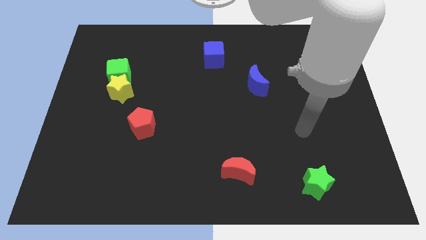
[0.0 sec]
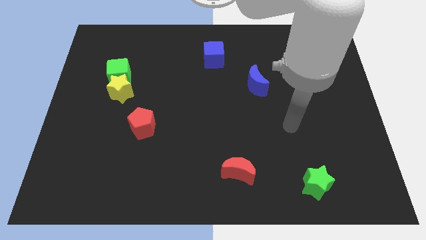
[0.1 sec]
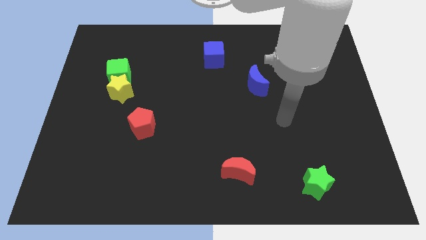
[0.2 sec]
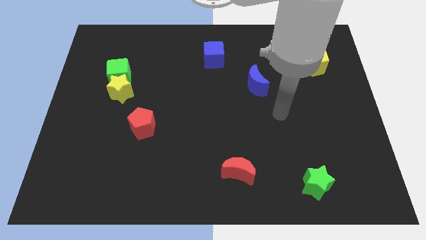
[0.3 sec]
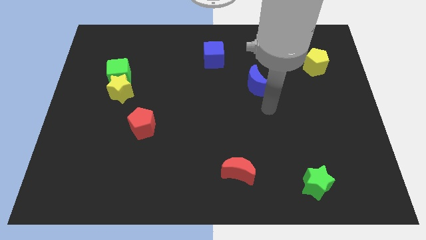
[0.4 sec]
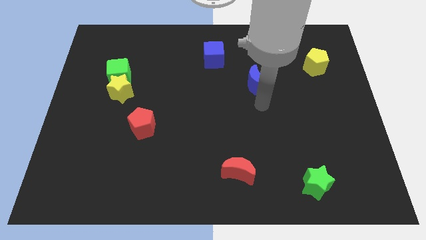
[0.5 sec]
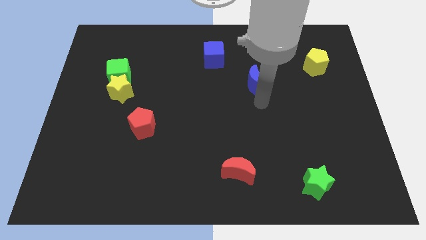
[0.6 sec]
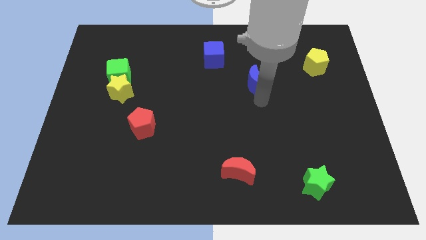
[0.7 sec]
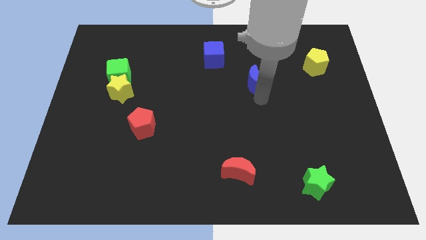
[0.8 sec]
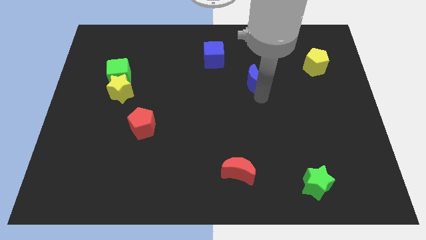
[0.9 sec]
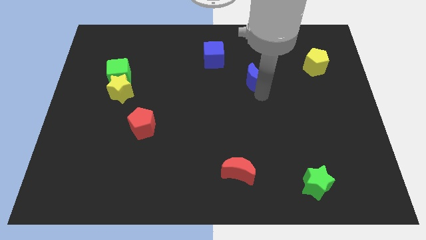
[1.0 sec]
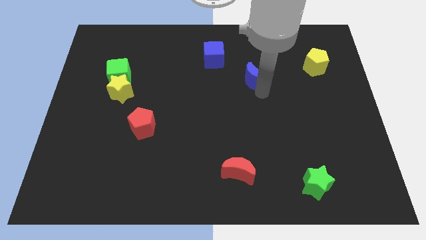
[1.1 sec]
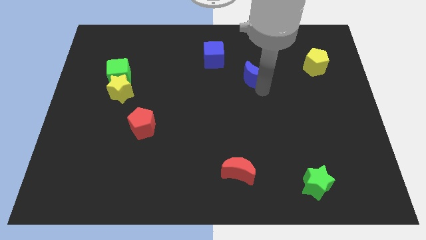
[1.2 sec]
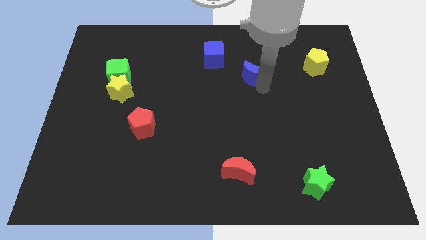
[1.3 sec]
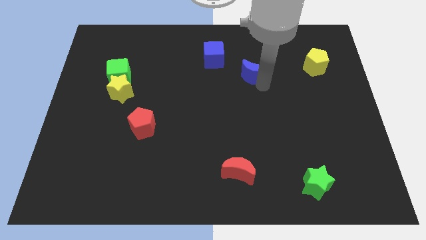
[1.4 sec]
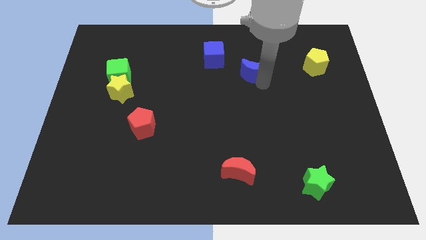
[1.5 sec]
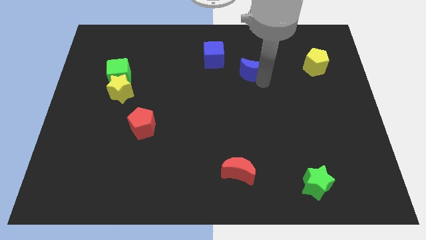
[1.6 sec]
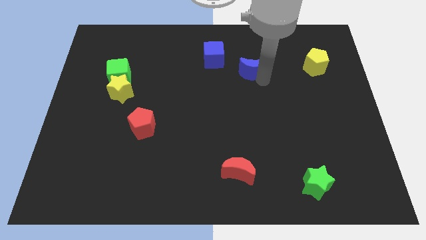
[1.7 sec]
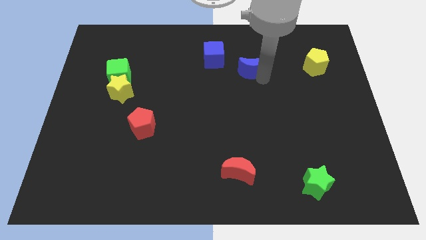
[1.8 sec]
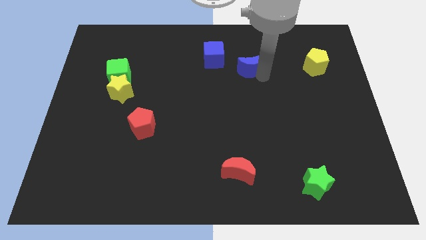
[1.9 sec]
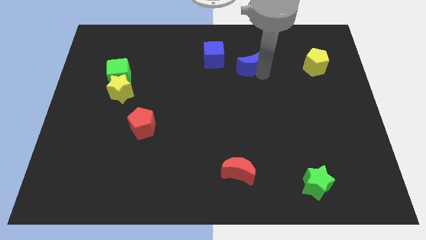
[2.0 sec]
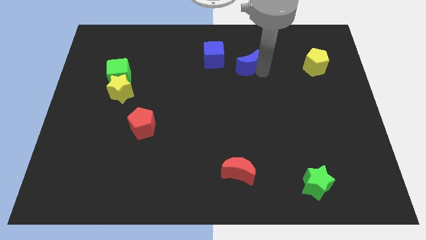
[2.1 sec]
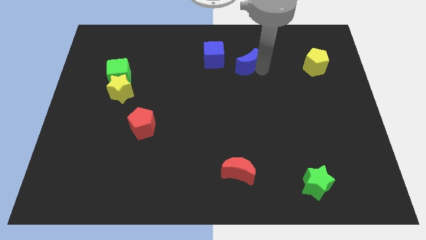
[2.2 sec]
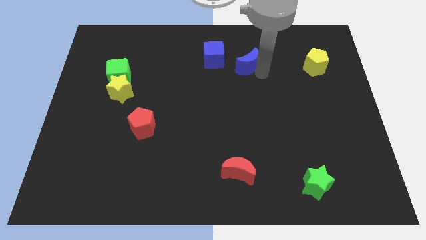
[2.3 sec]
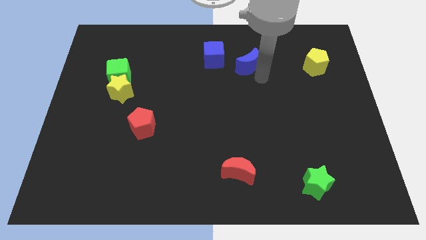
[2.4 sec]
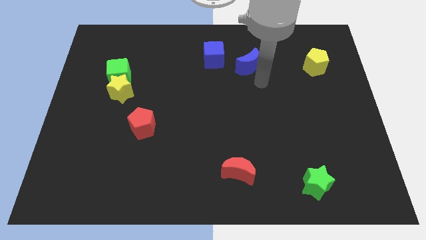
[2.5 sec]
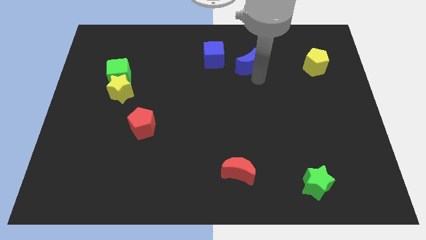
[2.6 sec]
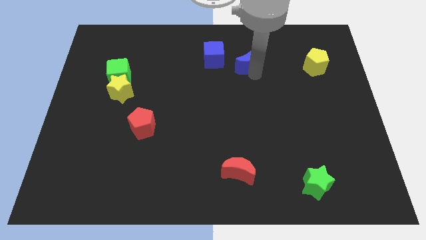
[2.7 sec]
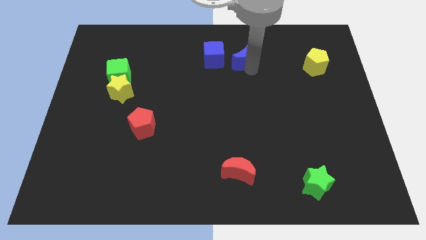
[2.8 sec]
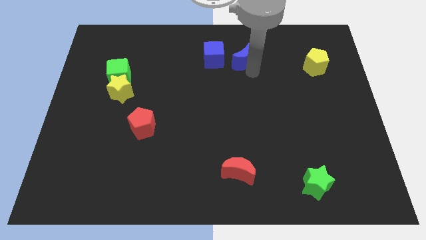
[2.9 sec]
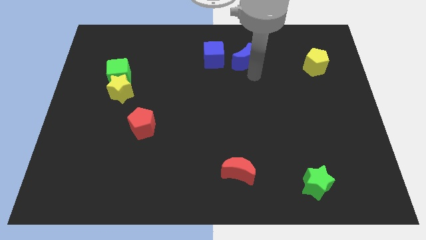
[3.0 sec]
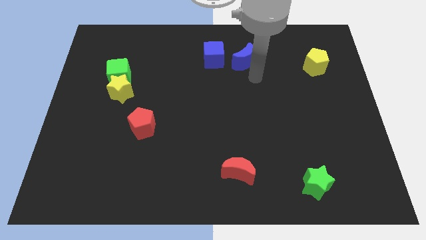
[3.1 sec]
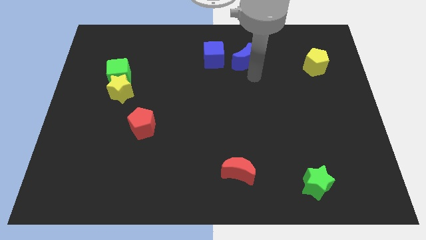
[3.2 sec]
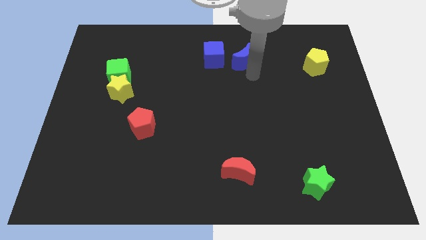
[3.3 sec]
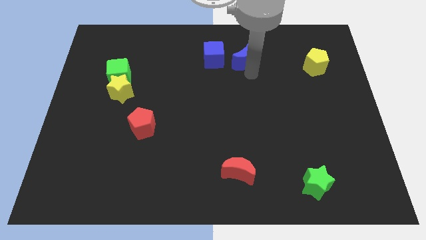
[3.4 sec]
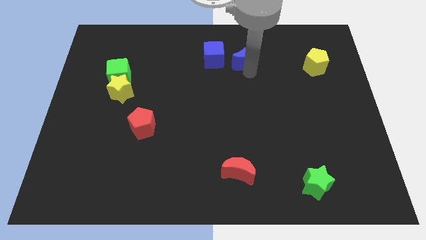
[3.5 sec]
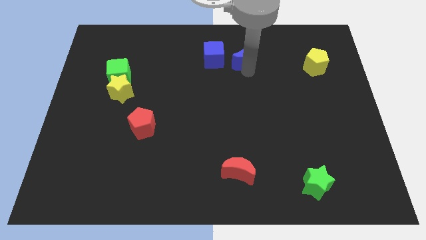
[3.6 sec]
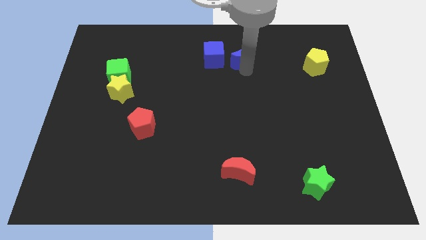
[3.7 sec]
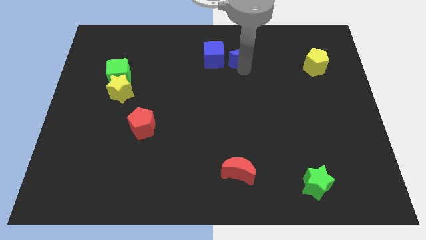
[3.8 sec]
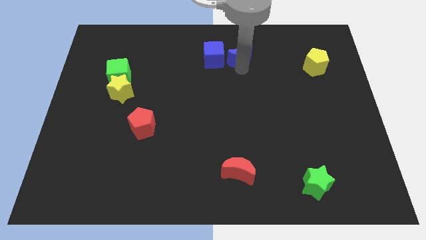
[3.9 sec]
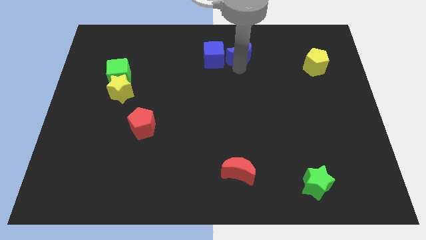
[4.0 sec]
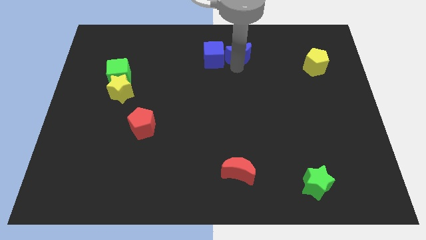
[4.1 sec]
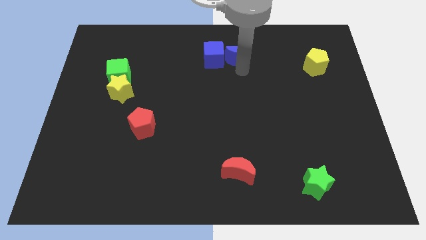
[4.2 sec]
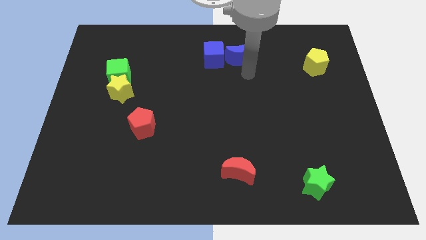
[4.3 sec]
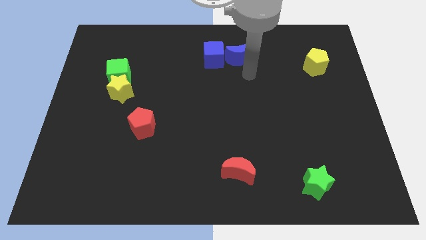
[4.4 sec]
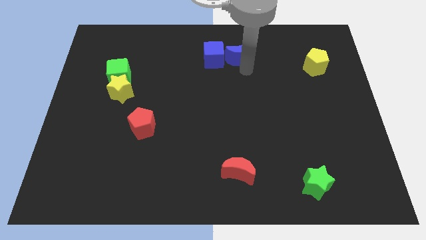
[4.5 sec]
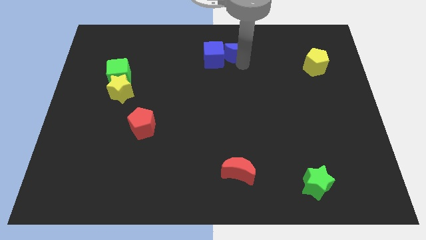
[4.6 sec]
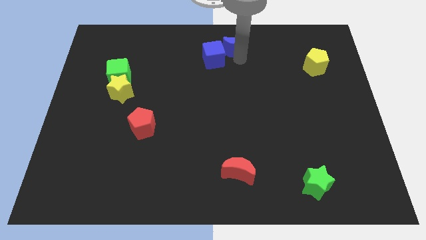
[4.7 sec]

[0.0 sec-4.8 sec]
push the blue moon to the towards your base

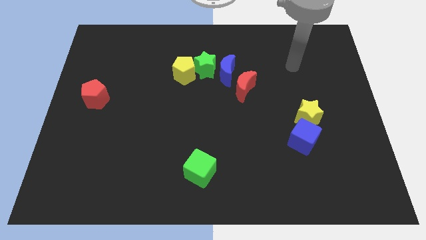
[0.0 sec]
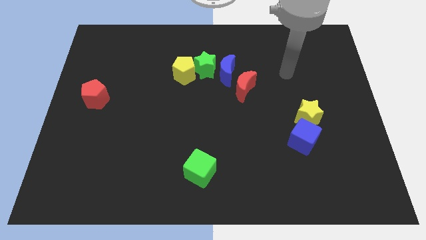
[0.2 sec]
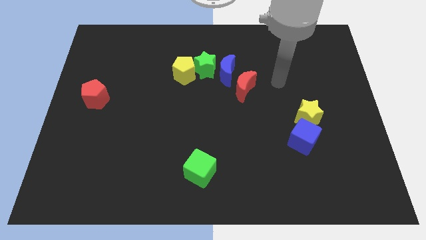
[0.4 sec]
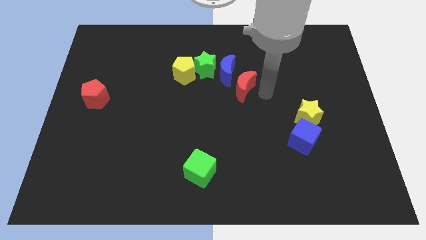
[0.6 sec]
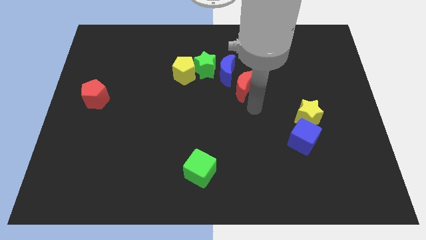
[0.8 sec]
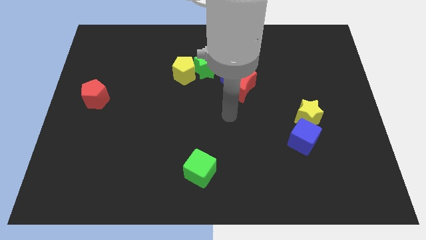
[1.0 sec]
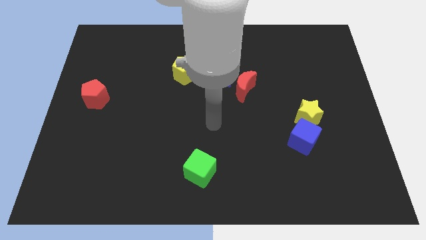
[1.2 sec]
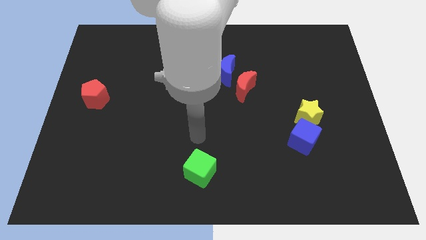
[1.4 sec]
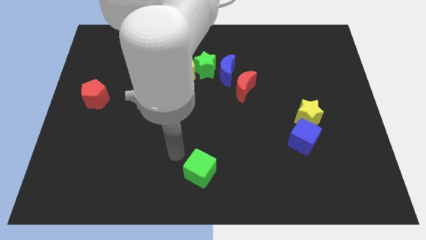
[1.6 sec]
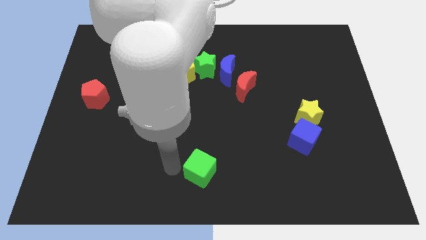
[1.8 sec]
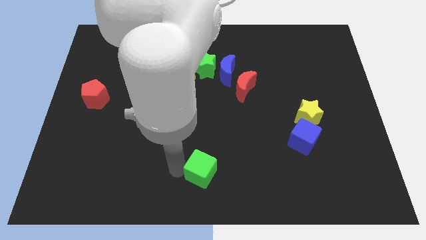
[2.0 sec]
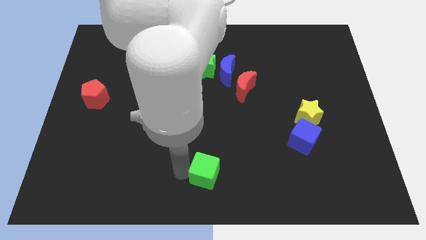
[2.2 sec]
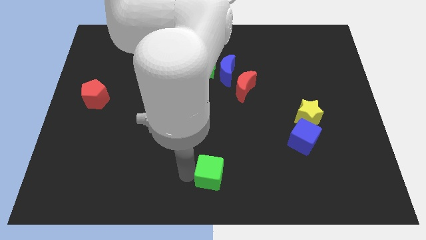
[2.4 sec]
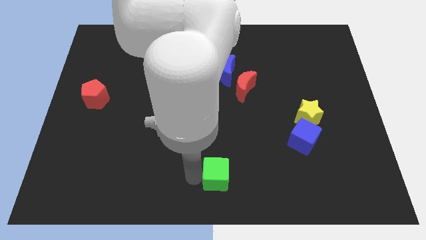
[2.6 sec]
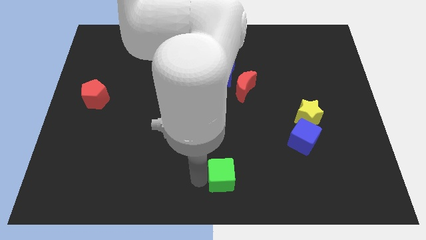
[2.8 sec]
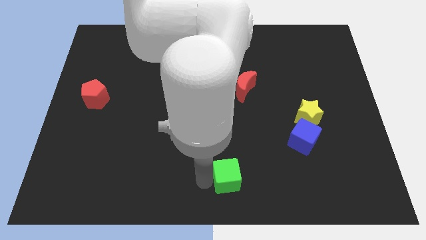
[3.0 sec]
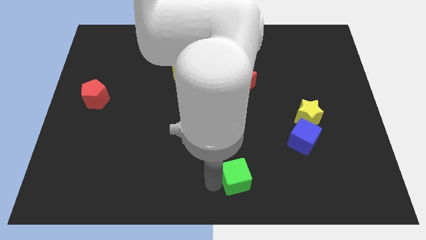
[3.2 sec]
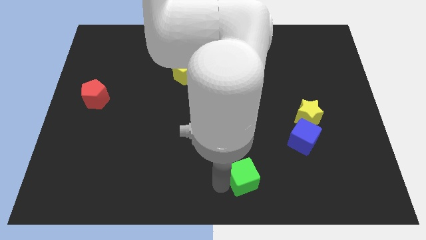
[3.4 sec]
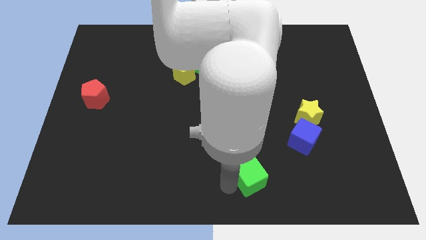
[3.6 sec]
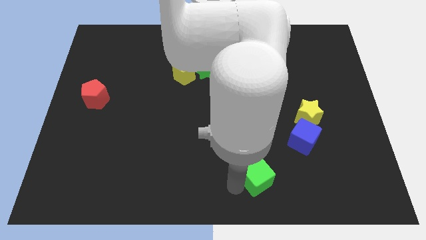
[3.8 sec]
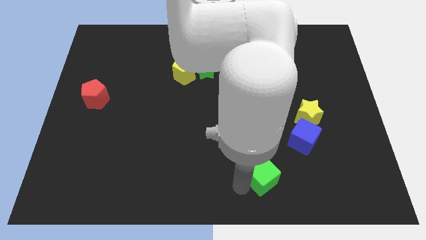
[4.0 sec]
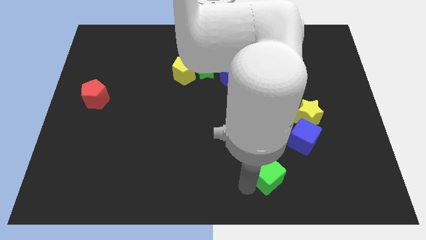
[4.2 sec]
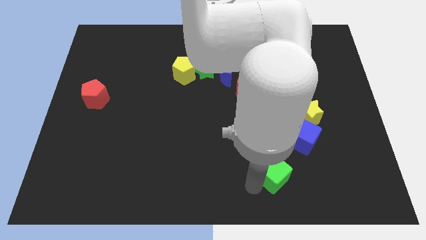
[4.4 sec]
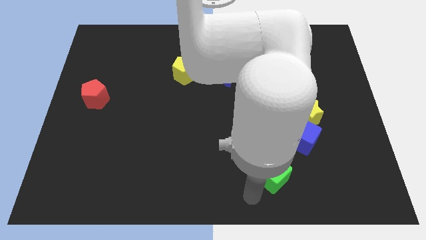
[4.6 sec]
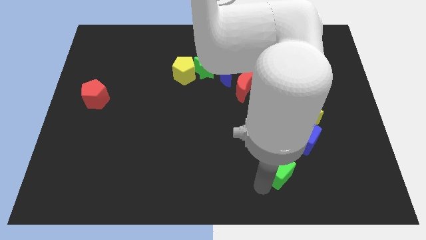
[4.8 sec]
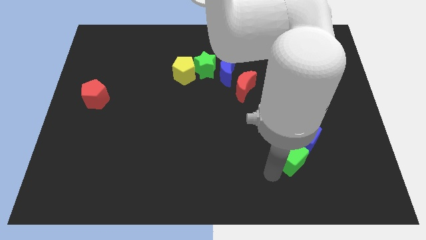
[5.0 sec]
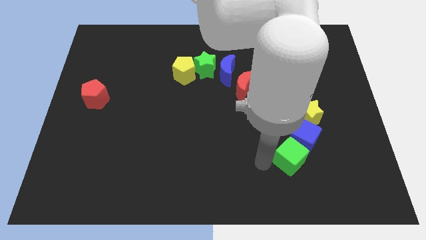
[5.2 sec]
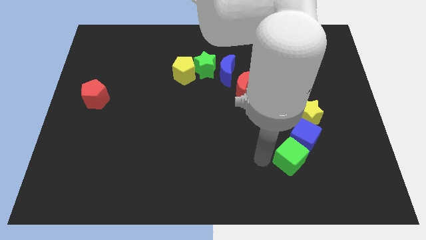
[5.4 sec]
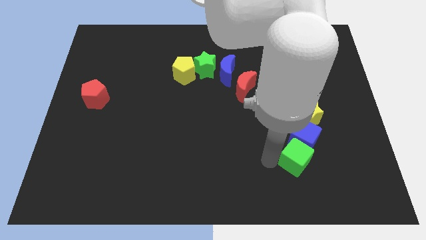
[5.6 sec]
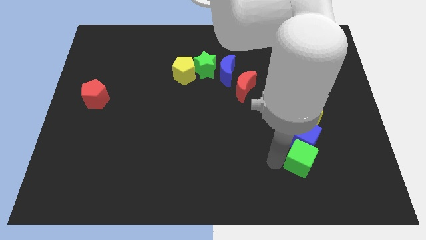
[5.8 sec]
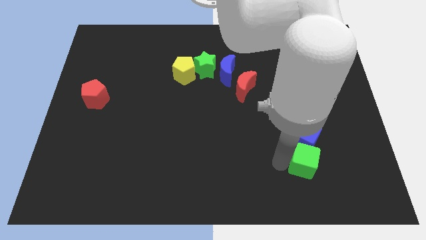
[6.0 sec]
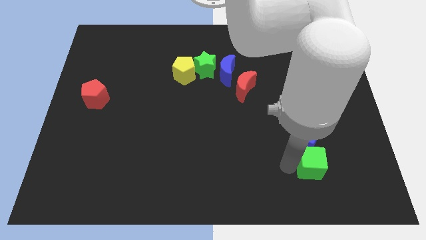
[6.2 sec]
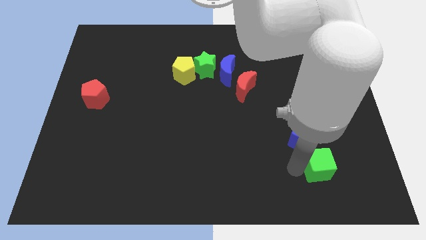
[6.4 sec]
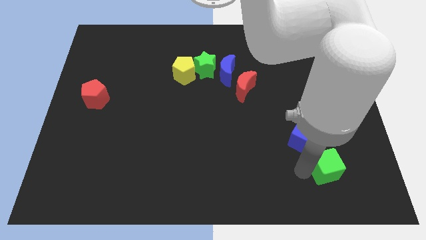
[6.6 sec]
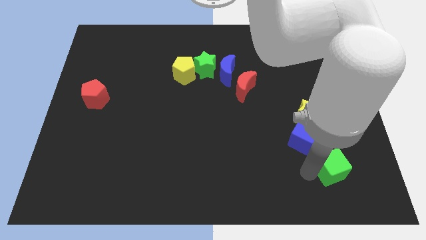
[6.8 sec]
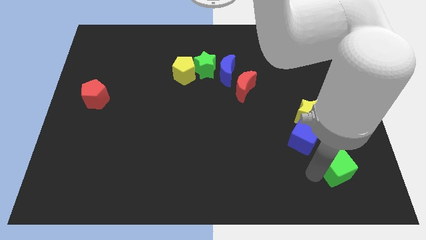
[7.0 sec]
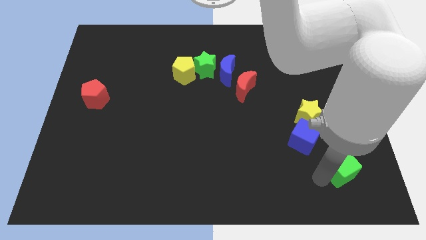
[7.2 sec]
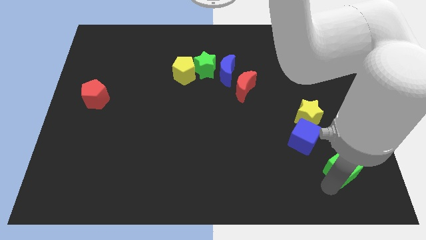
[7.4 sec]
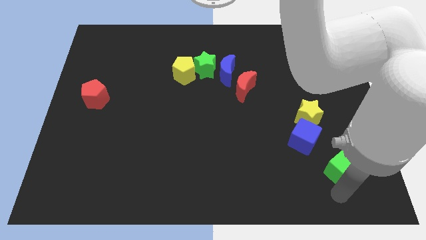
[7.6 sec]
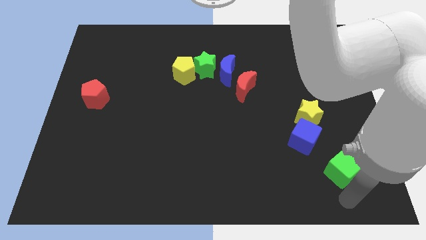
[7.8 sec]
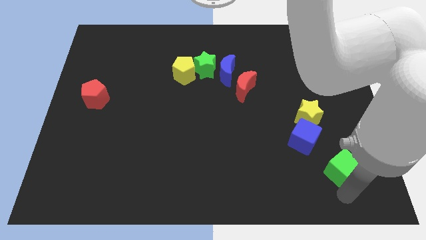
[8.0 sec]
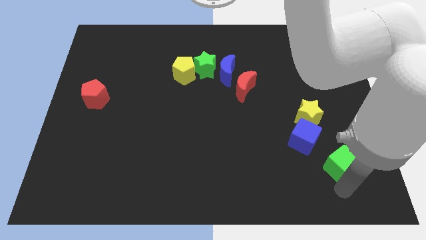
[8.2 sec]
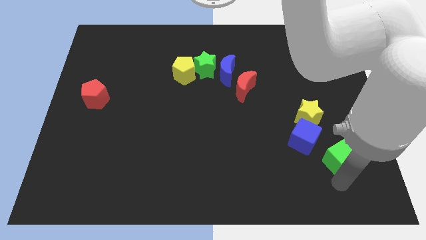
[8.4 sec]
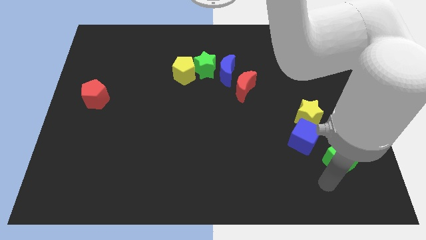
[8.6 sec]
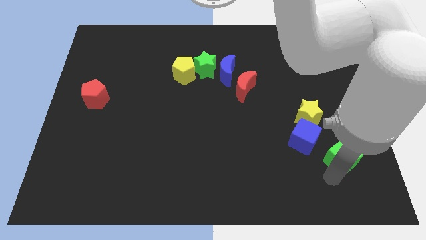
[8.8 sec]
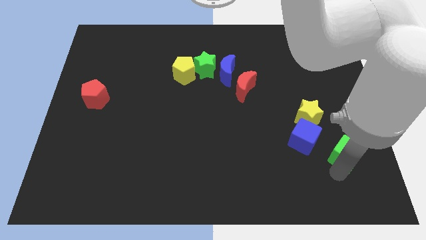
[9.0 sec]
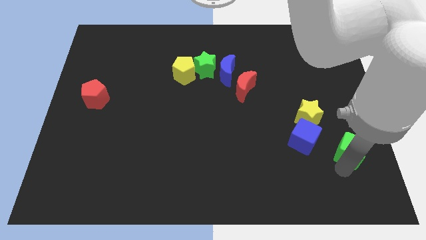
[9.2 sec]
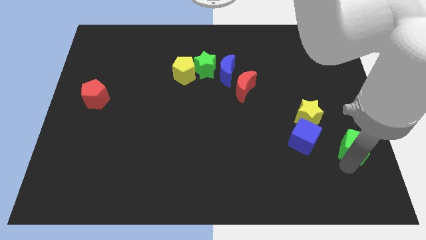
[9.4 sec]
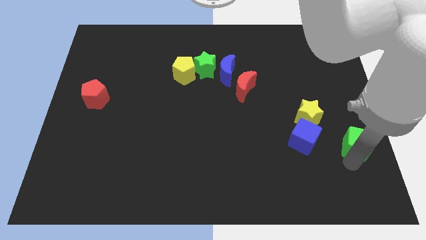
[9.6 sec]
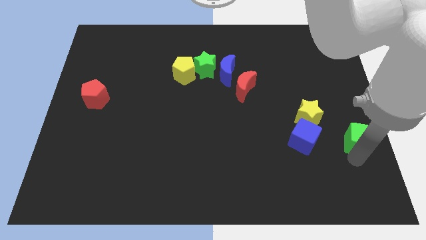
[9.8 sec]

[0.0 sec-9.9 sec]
move the green cube to the right side of the board
